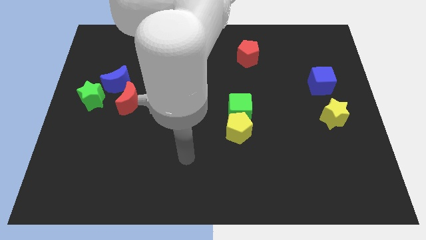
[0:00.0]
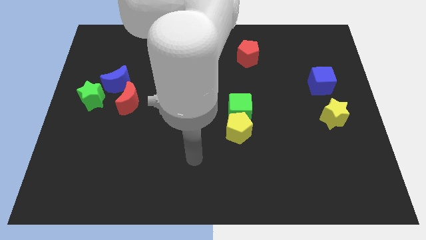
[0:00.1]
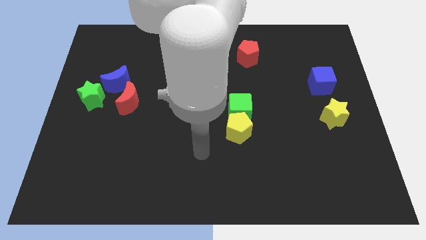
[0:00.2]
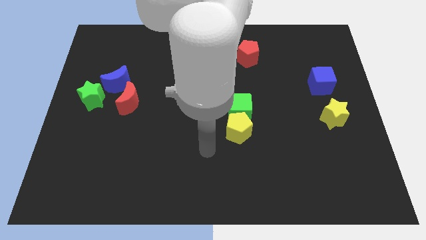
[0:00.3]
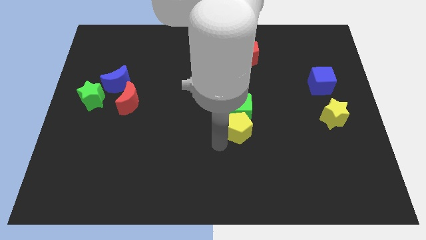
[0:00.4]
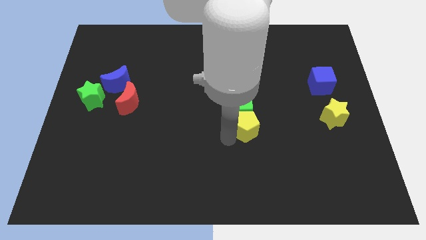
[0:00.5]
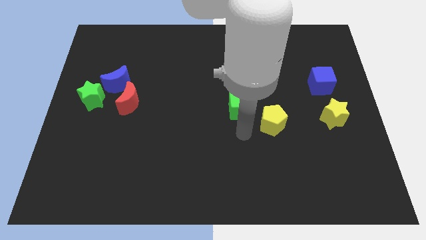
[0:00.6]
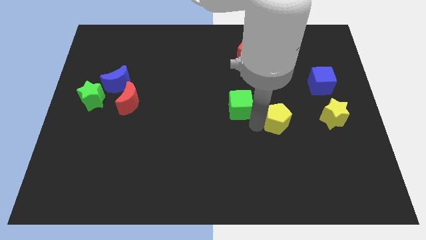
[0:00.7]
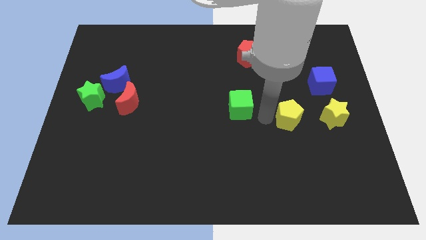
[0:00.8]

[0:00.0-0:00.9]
move the green cube away from the yellow pentagon

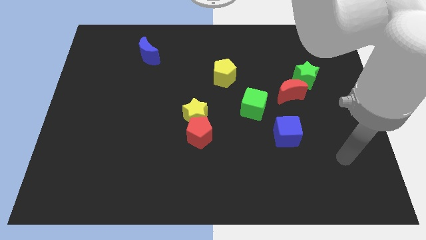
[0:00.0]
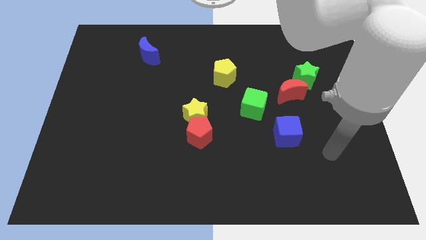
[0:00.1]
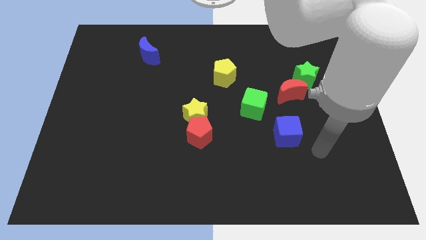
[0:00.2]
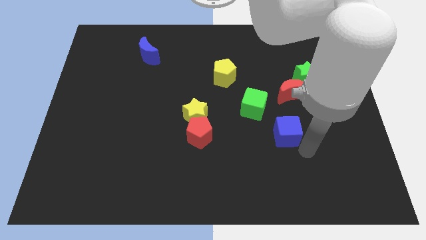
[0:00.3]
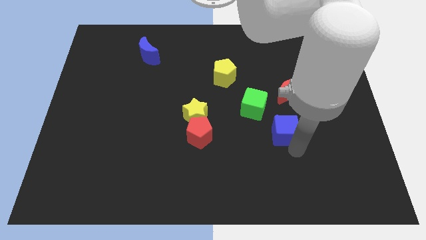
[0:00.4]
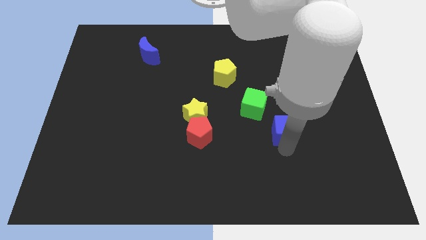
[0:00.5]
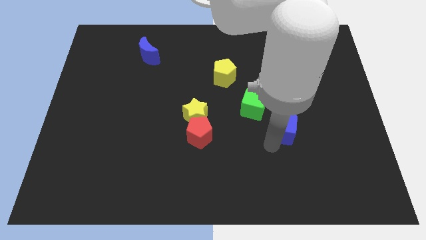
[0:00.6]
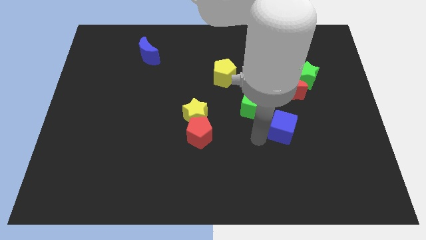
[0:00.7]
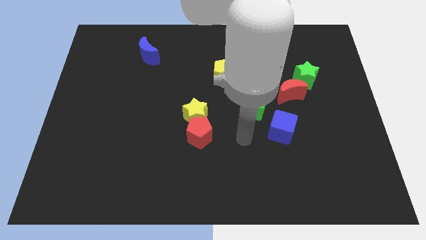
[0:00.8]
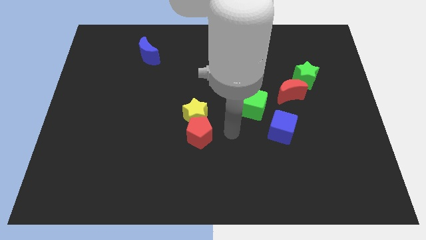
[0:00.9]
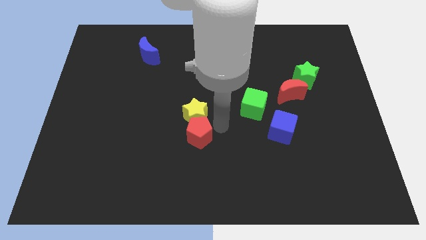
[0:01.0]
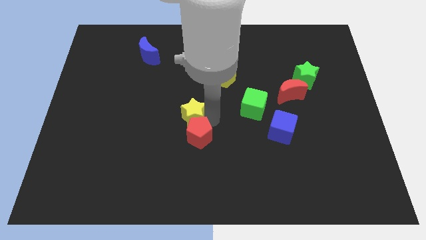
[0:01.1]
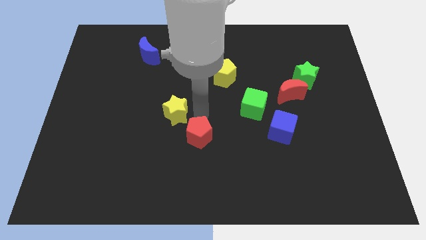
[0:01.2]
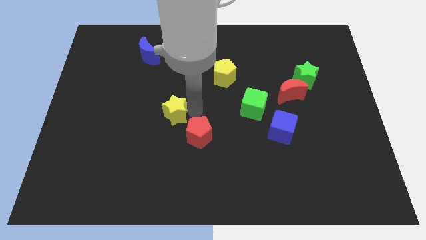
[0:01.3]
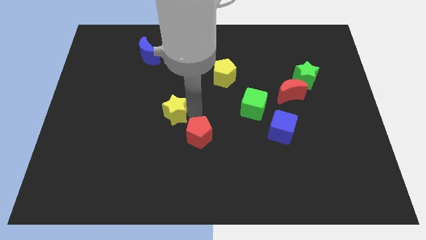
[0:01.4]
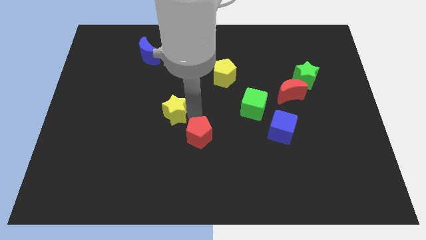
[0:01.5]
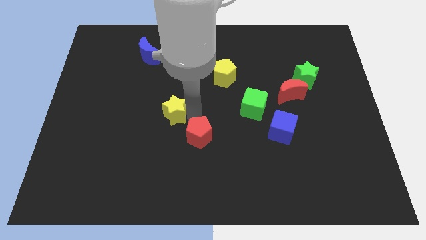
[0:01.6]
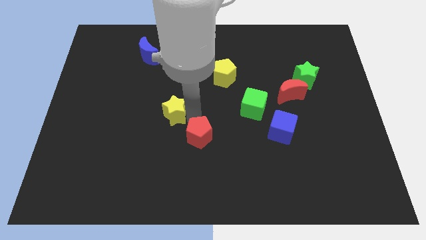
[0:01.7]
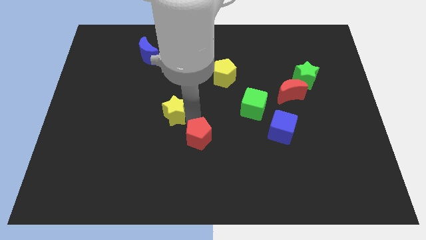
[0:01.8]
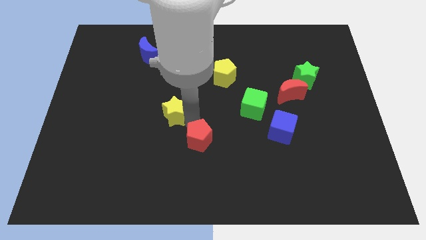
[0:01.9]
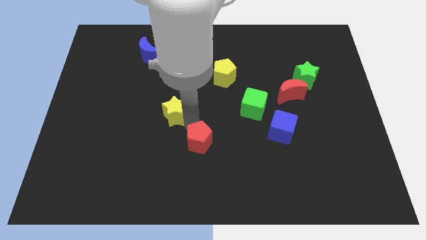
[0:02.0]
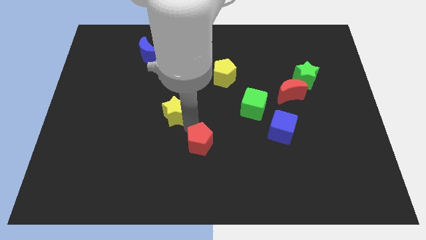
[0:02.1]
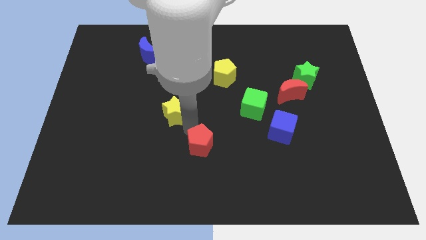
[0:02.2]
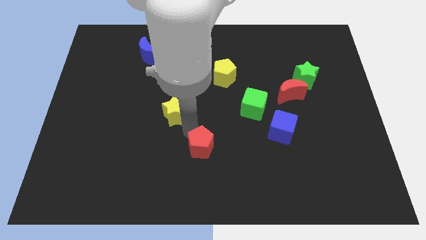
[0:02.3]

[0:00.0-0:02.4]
separate the red pentagon from the yellow star

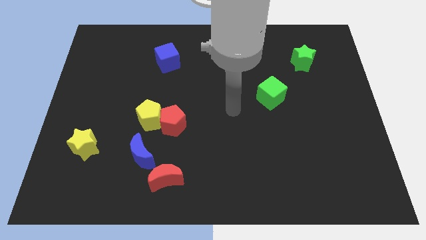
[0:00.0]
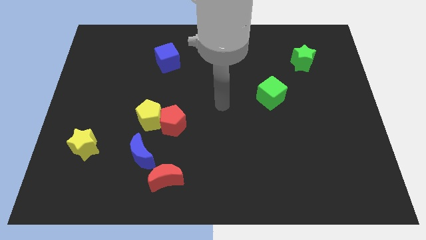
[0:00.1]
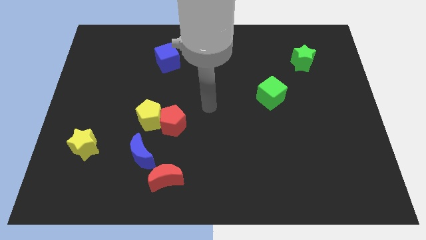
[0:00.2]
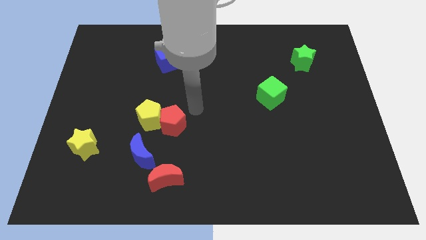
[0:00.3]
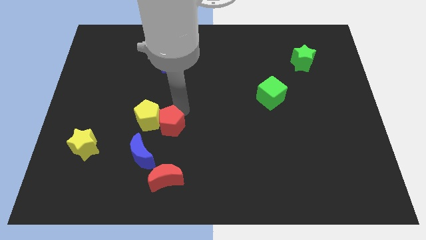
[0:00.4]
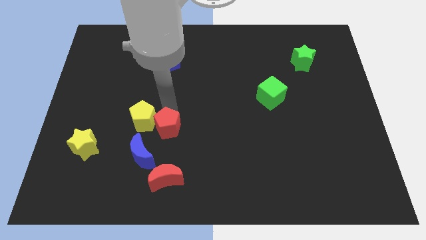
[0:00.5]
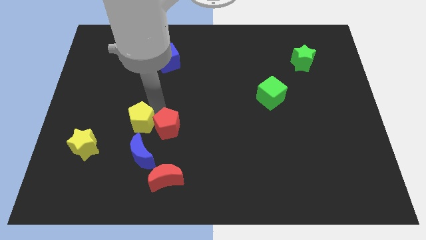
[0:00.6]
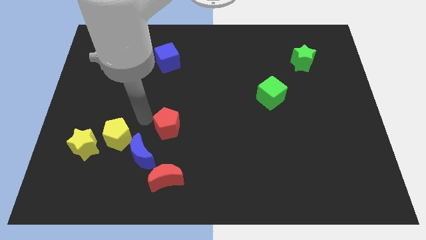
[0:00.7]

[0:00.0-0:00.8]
move the red pentagon away from the yellow pentagon

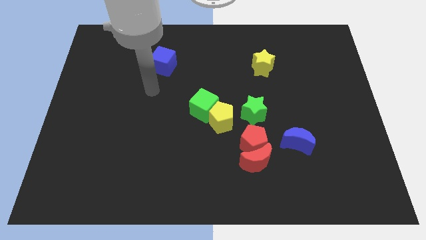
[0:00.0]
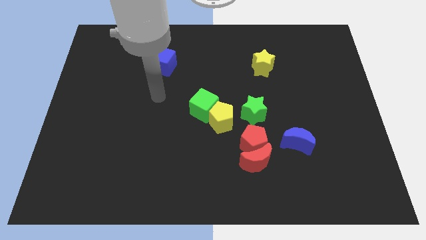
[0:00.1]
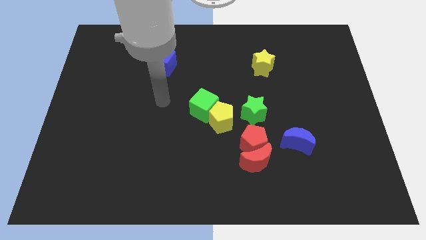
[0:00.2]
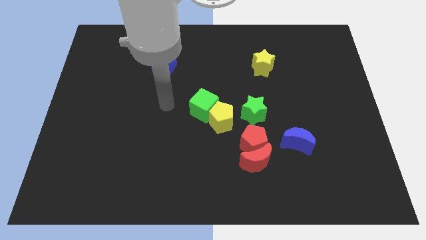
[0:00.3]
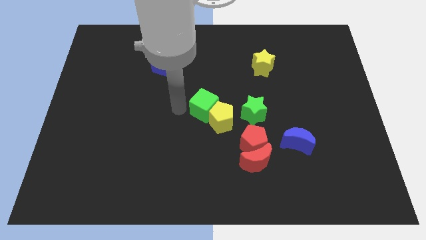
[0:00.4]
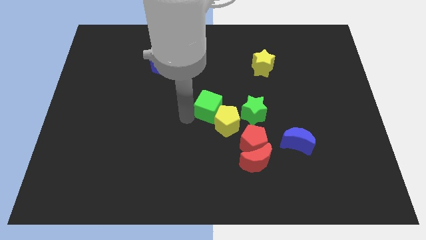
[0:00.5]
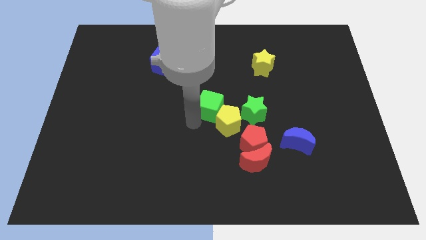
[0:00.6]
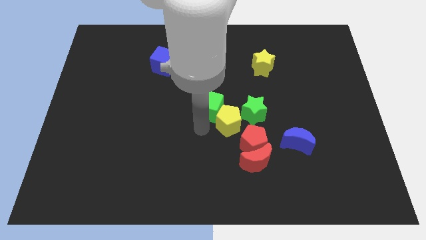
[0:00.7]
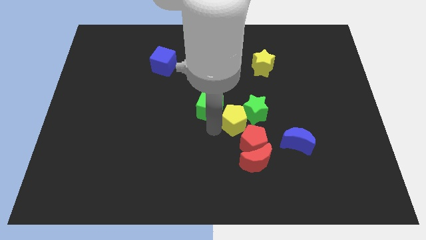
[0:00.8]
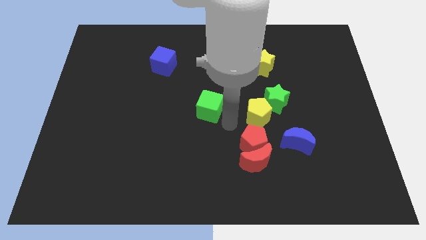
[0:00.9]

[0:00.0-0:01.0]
pull the green cube apart from the yellow pentagon

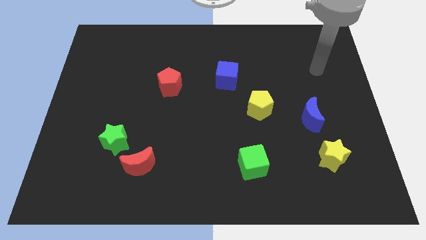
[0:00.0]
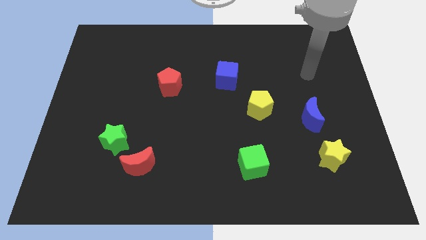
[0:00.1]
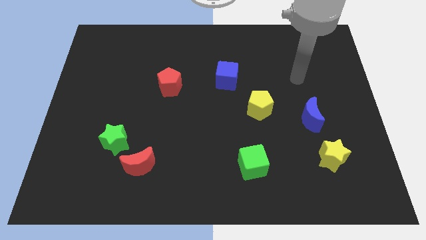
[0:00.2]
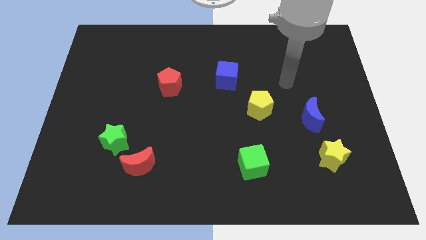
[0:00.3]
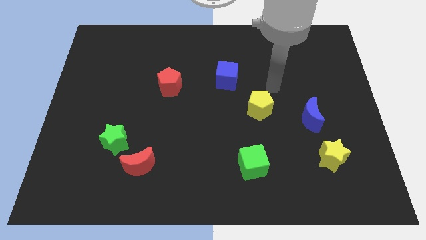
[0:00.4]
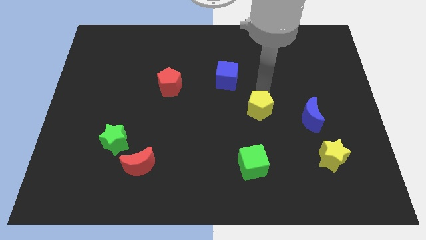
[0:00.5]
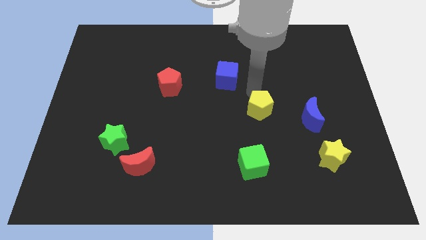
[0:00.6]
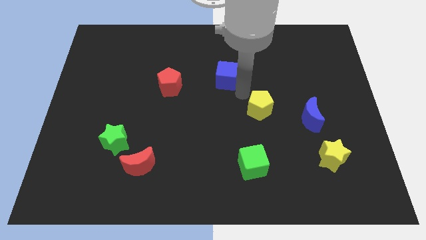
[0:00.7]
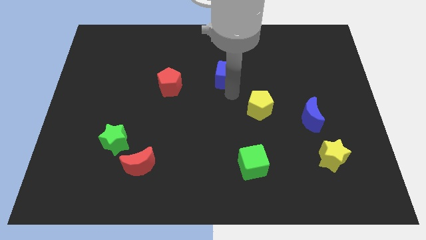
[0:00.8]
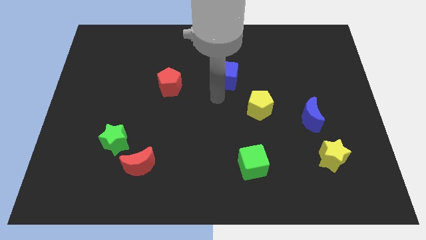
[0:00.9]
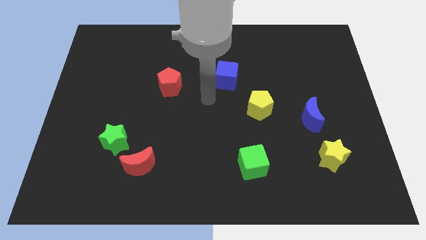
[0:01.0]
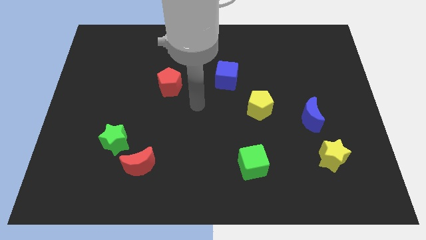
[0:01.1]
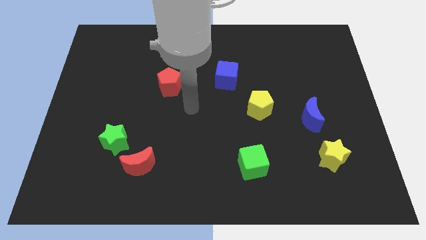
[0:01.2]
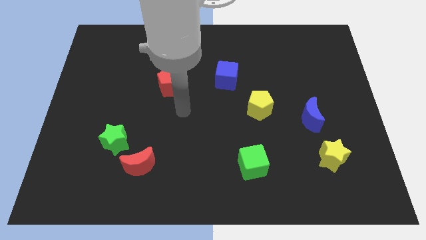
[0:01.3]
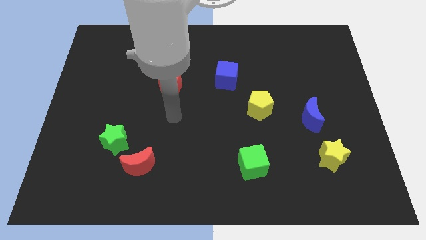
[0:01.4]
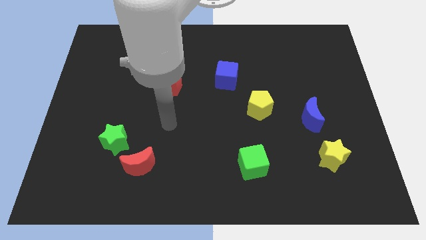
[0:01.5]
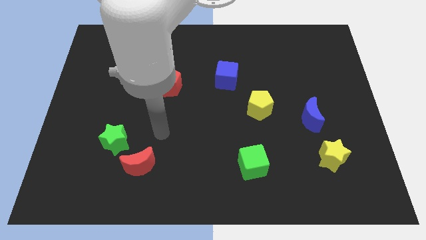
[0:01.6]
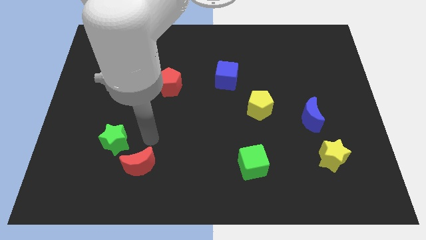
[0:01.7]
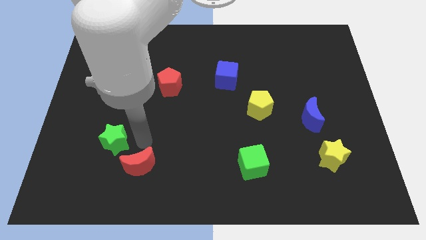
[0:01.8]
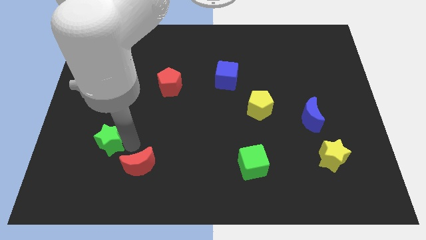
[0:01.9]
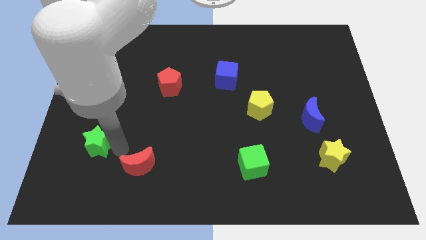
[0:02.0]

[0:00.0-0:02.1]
move the red moon away from the green star

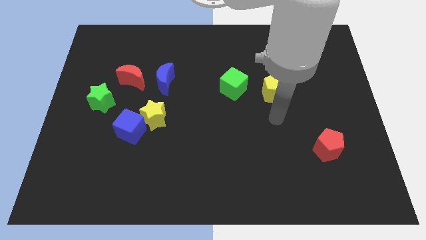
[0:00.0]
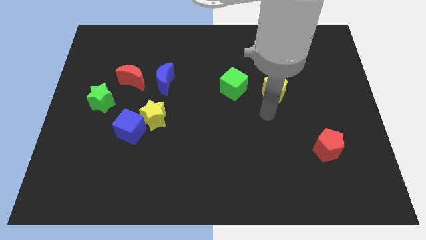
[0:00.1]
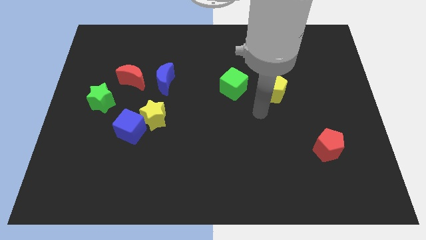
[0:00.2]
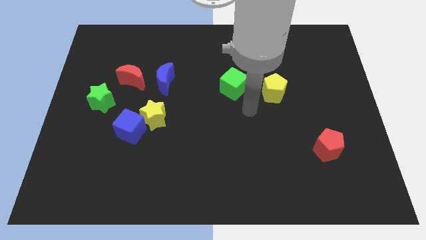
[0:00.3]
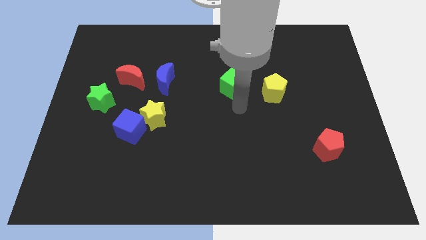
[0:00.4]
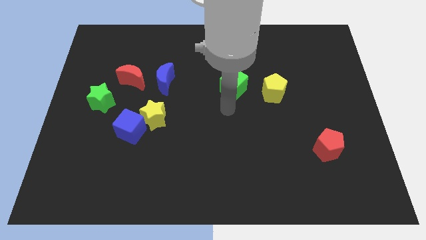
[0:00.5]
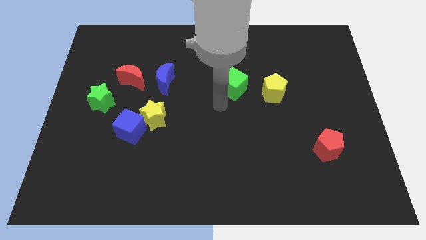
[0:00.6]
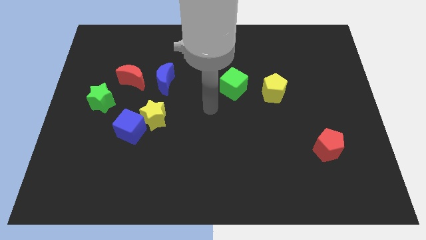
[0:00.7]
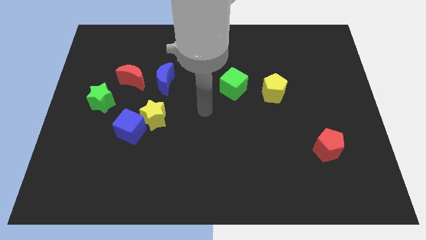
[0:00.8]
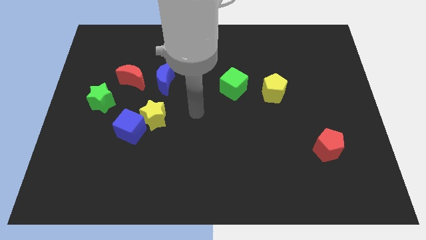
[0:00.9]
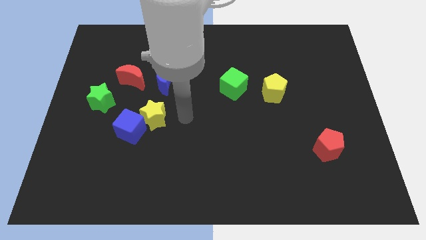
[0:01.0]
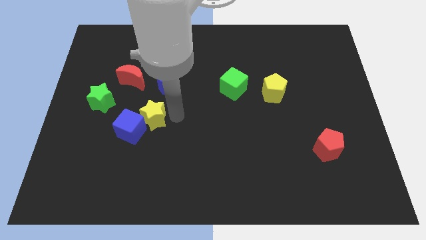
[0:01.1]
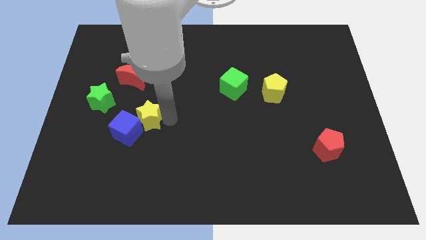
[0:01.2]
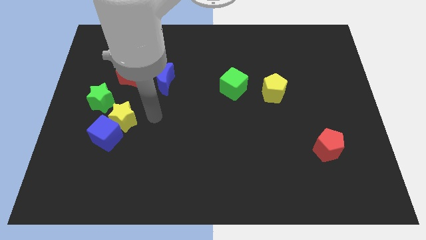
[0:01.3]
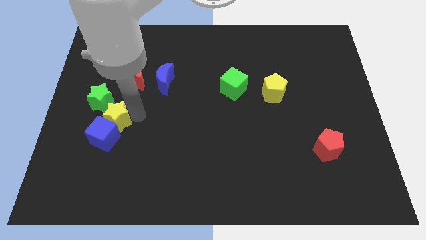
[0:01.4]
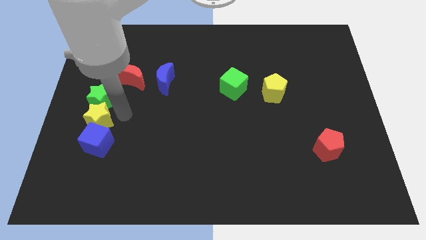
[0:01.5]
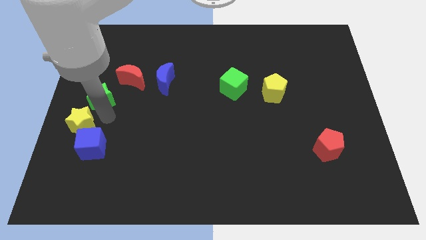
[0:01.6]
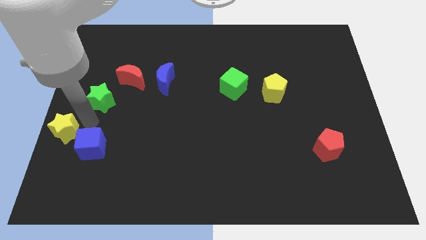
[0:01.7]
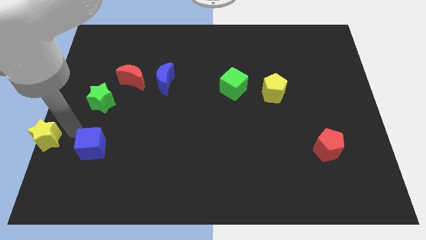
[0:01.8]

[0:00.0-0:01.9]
separate the blue cube from the yellow star

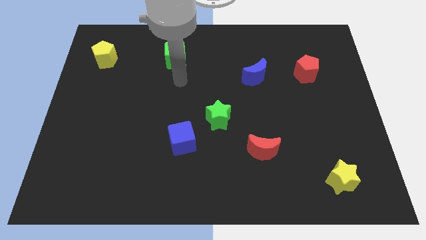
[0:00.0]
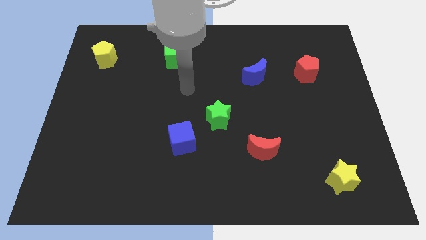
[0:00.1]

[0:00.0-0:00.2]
move the blue cube away from the green star

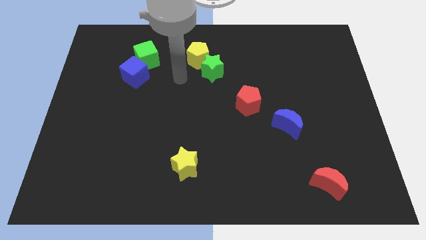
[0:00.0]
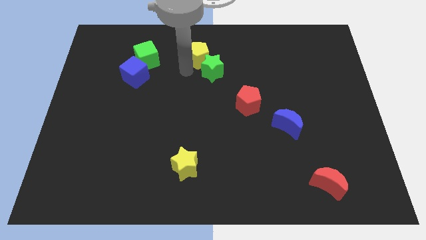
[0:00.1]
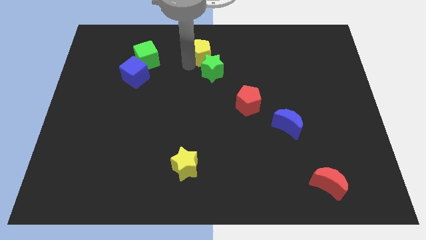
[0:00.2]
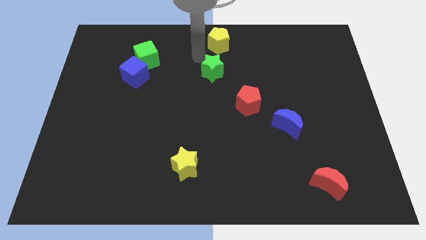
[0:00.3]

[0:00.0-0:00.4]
separate the green star from the yellow pentagon
